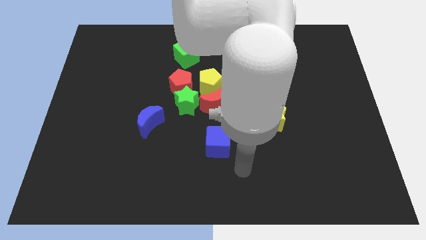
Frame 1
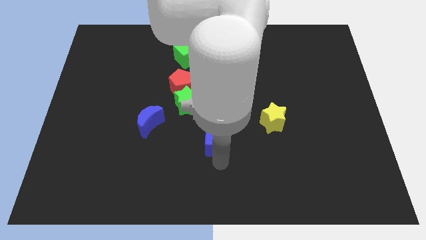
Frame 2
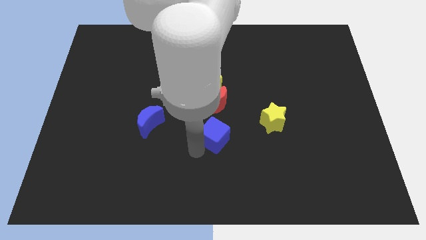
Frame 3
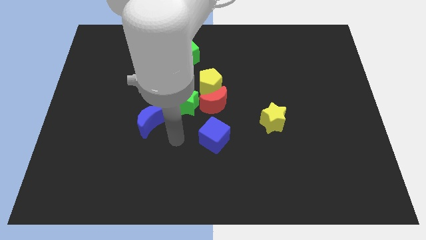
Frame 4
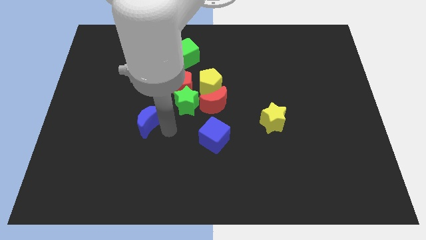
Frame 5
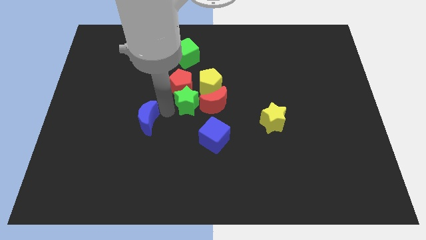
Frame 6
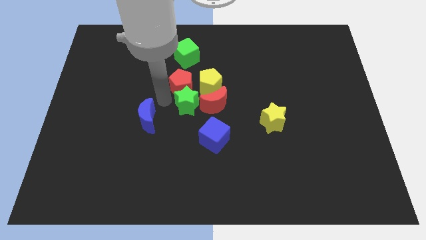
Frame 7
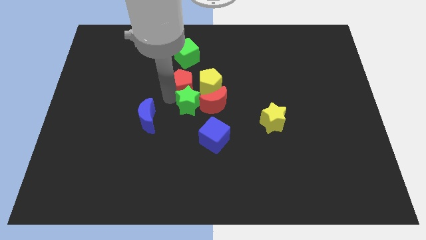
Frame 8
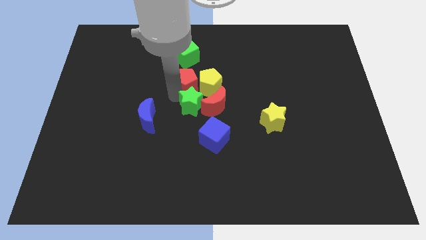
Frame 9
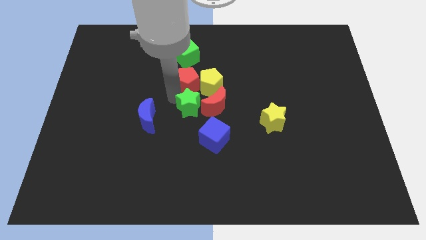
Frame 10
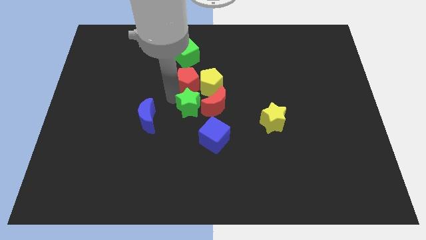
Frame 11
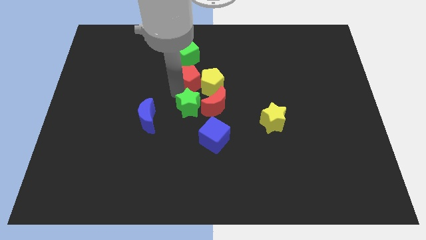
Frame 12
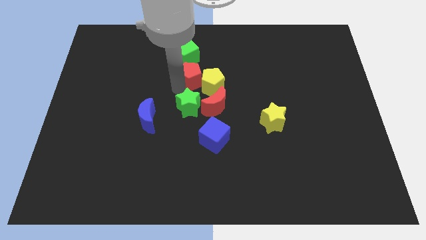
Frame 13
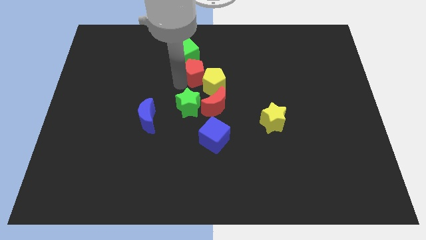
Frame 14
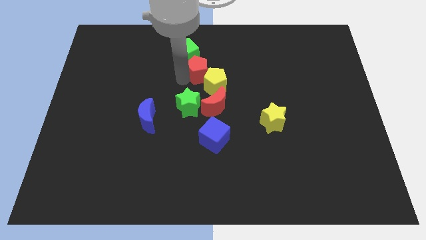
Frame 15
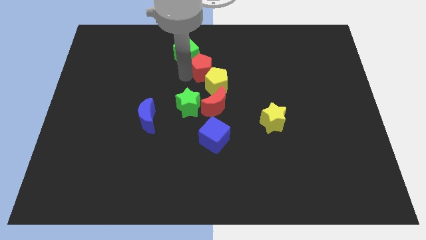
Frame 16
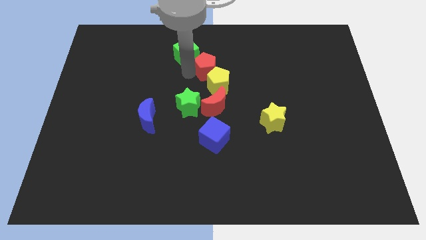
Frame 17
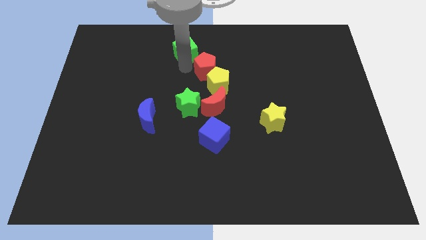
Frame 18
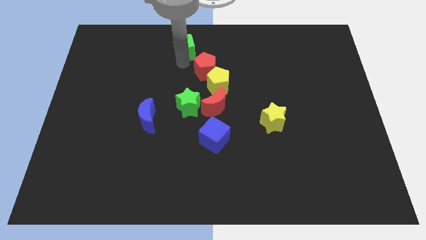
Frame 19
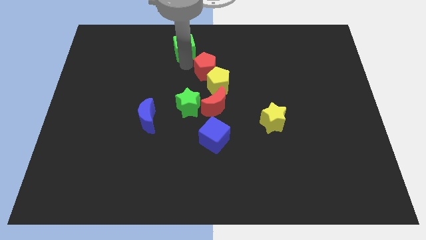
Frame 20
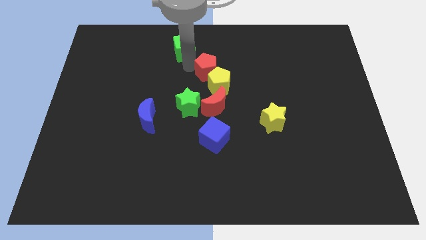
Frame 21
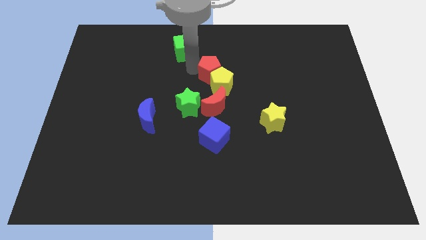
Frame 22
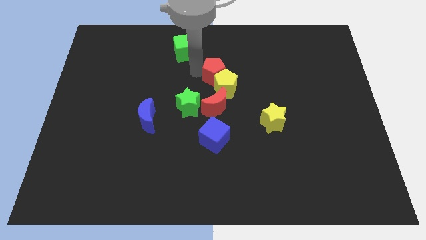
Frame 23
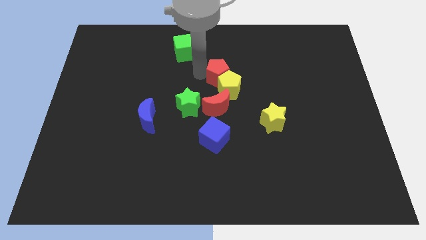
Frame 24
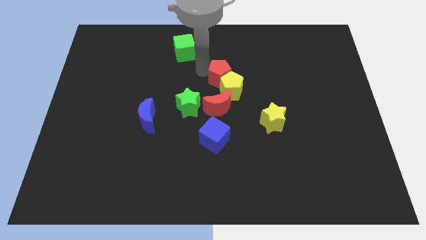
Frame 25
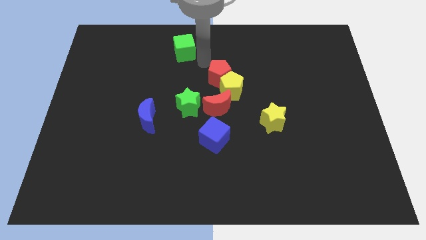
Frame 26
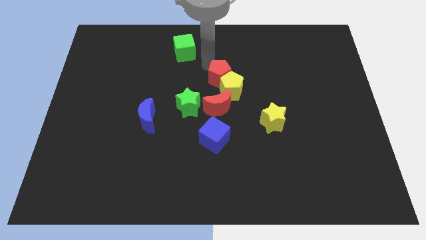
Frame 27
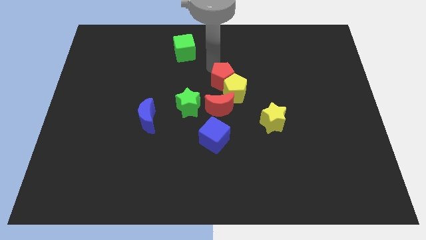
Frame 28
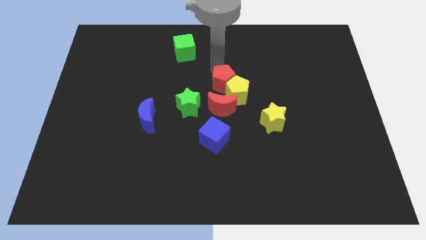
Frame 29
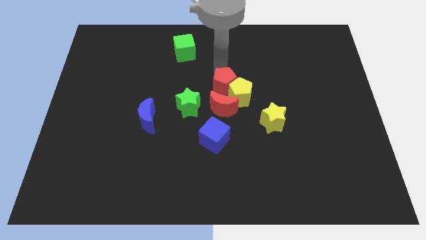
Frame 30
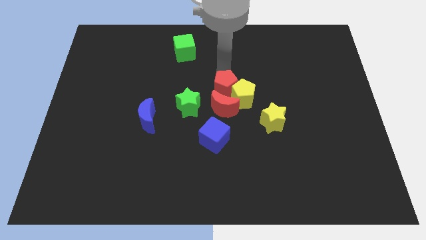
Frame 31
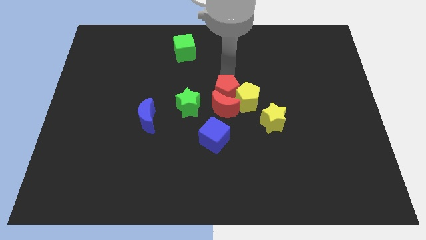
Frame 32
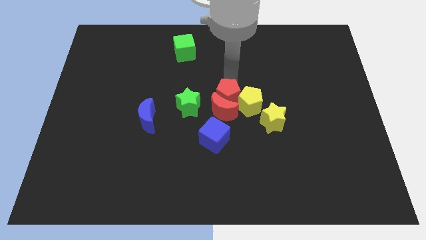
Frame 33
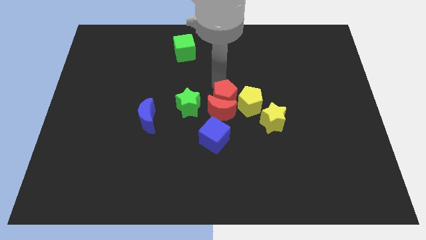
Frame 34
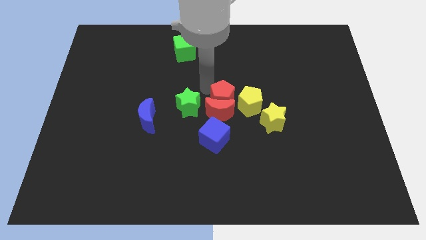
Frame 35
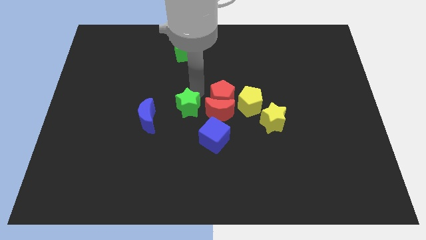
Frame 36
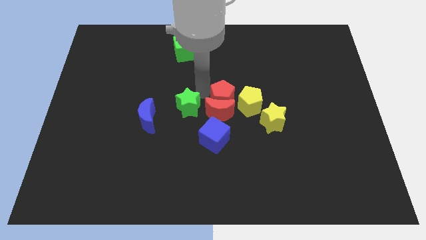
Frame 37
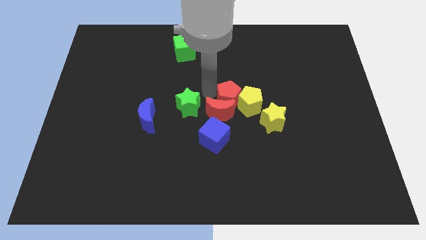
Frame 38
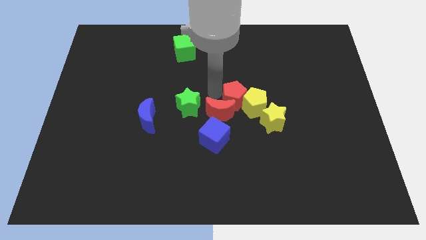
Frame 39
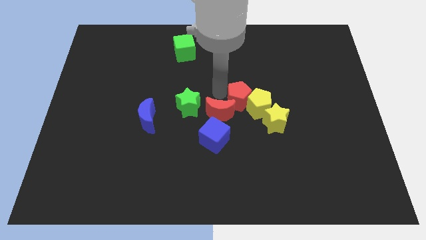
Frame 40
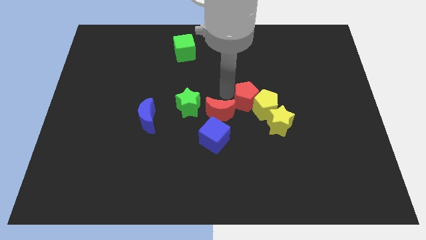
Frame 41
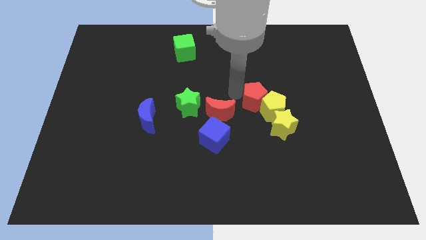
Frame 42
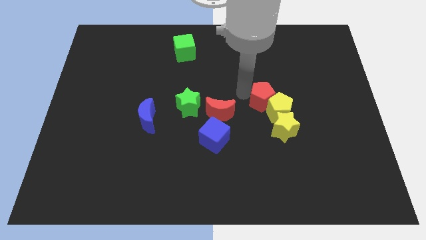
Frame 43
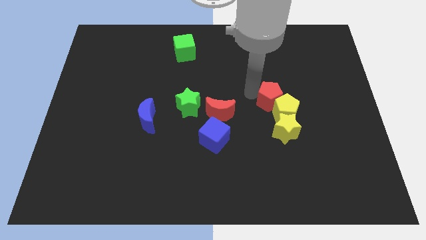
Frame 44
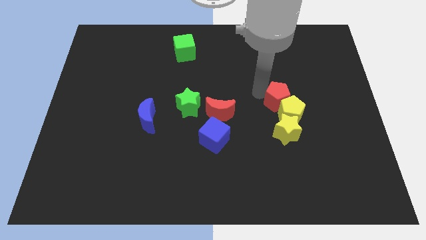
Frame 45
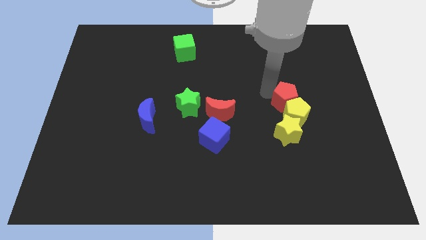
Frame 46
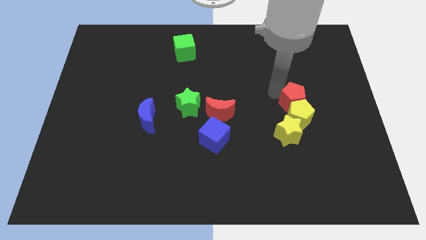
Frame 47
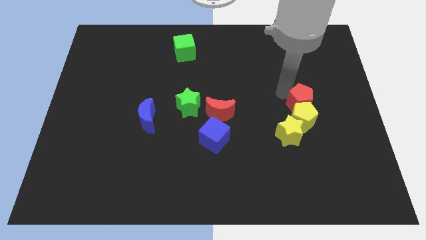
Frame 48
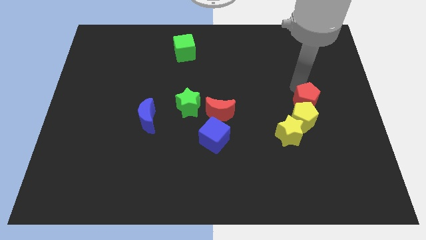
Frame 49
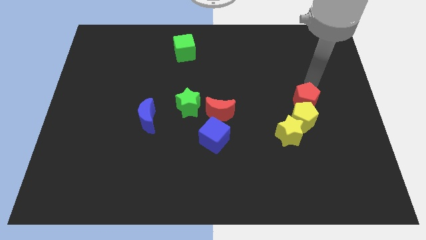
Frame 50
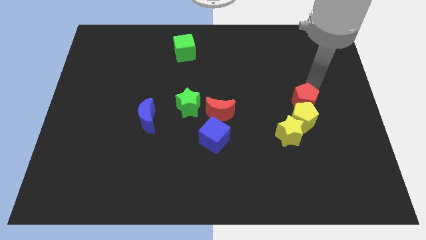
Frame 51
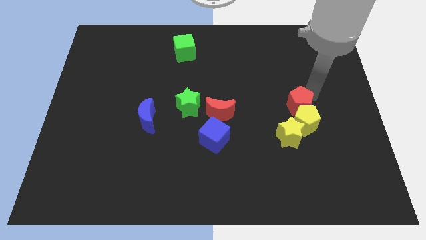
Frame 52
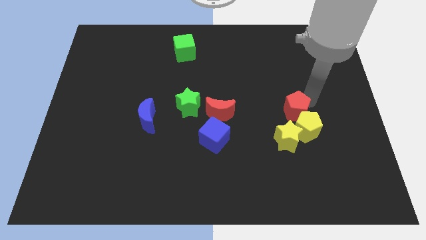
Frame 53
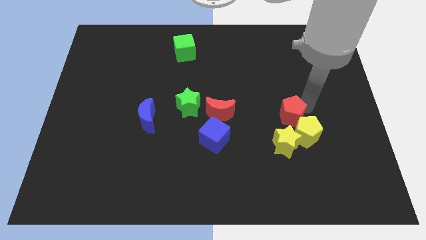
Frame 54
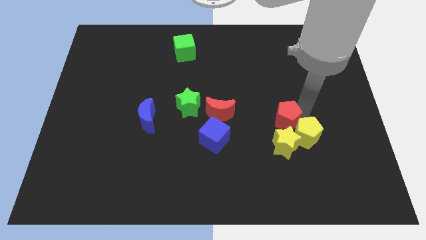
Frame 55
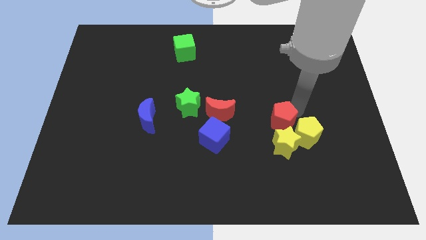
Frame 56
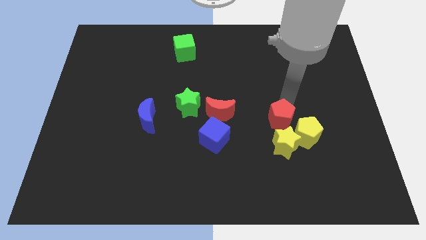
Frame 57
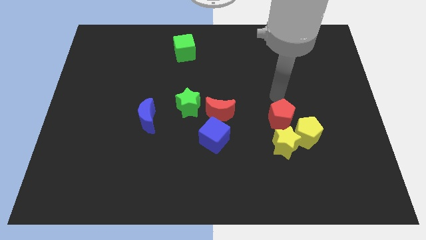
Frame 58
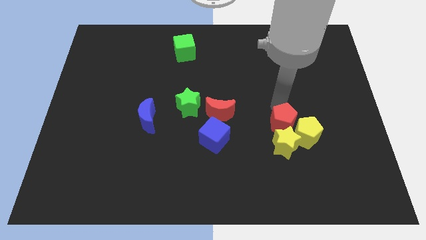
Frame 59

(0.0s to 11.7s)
move the red pentagon towards the yellow star

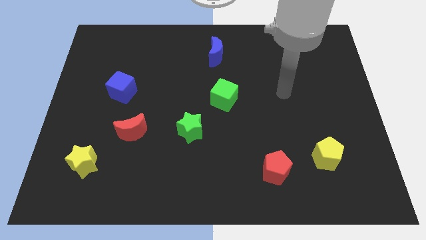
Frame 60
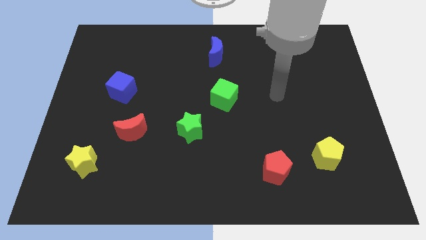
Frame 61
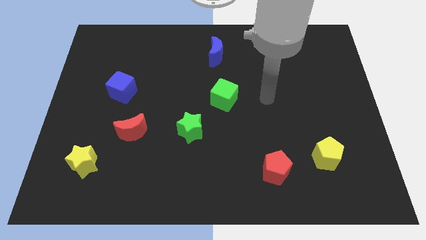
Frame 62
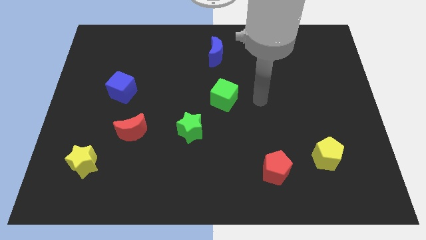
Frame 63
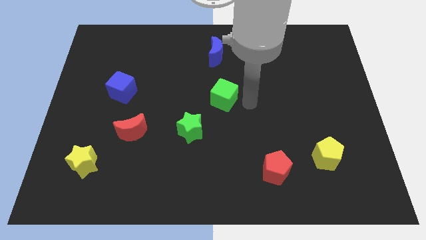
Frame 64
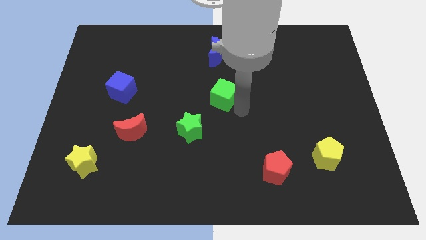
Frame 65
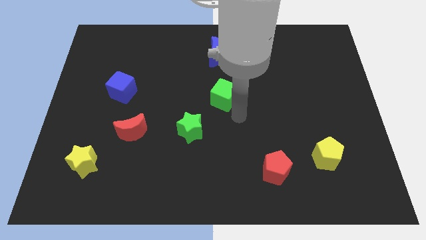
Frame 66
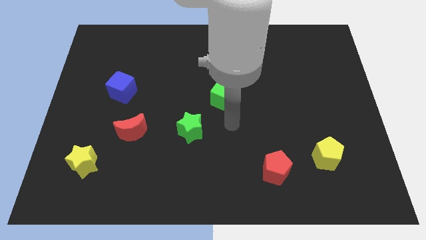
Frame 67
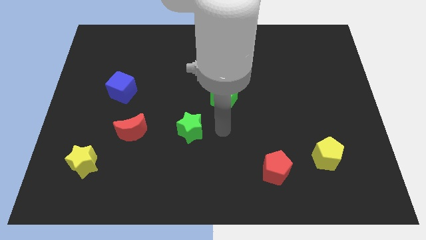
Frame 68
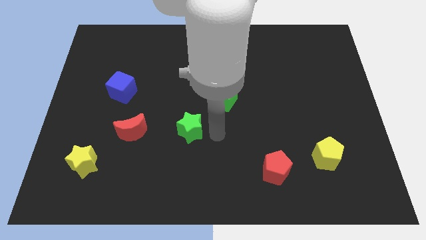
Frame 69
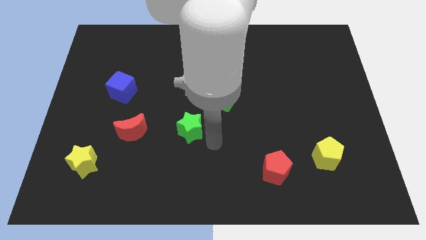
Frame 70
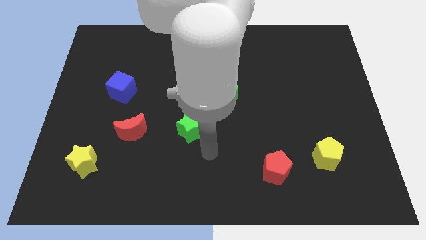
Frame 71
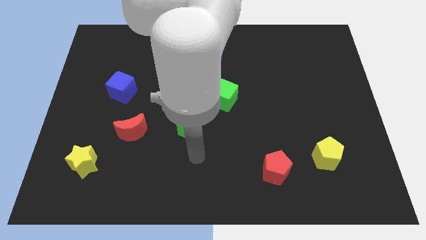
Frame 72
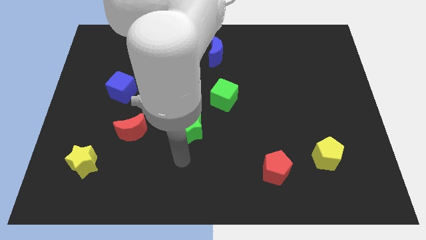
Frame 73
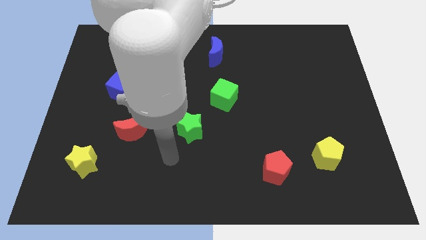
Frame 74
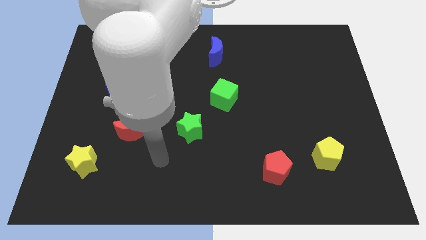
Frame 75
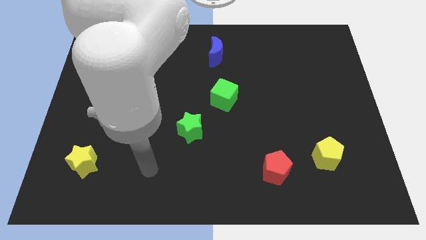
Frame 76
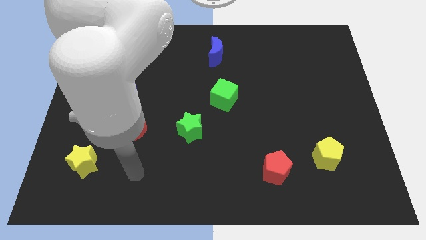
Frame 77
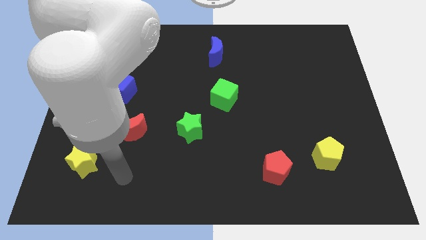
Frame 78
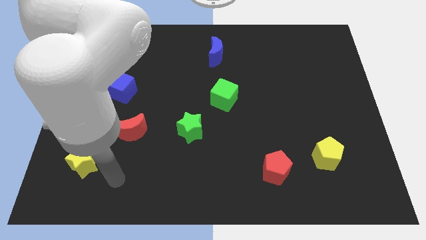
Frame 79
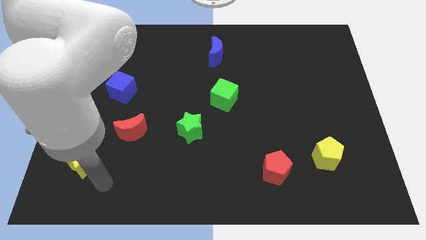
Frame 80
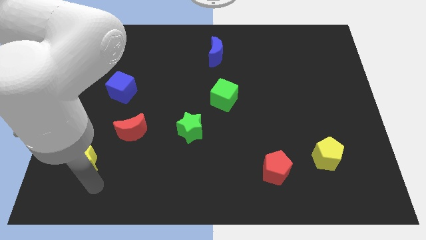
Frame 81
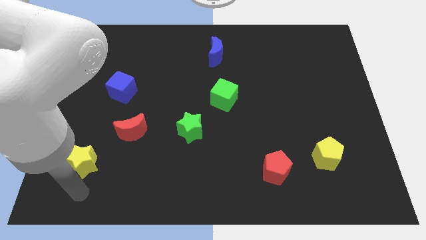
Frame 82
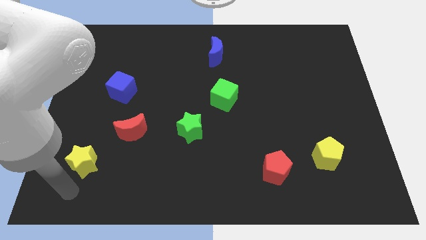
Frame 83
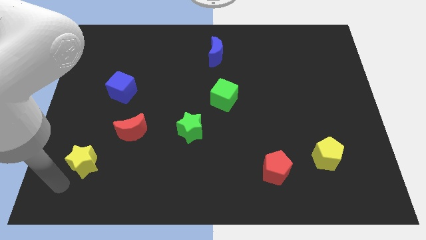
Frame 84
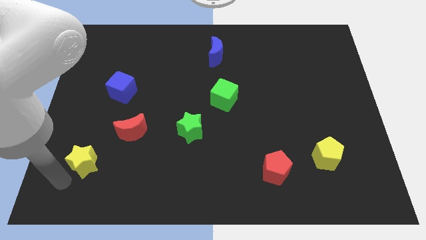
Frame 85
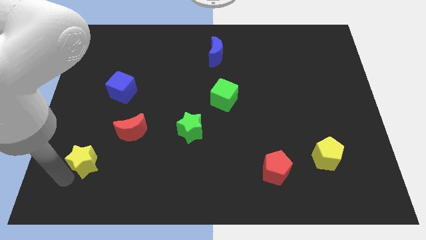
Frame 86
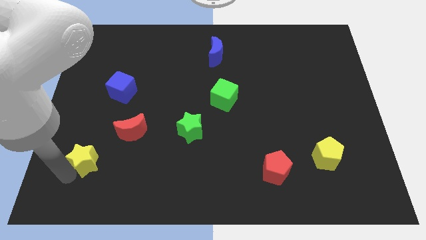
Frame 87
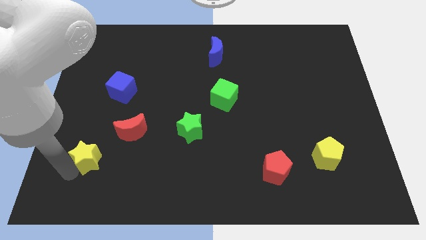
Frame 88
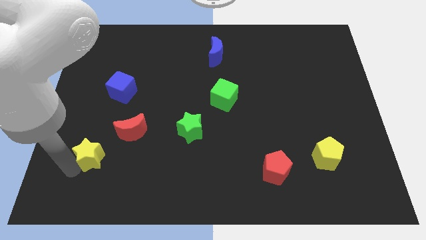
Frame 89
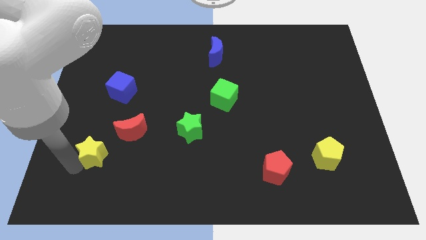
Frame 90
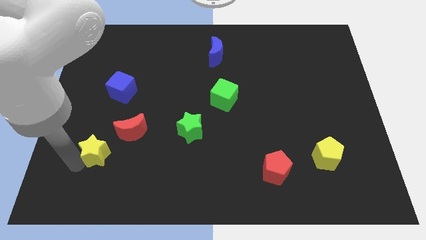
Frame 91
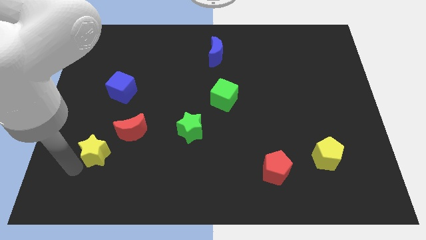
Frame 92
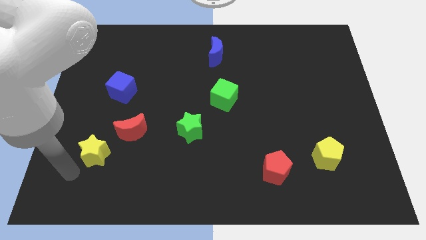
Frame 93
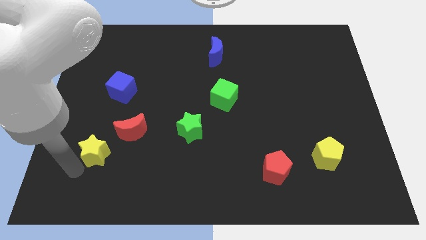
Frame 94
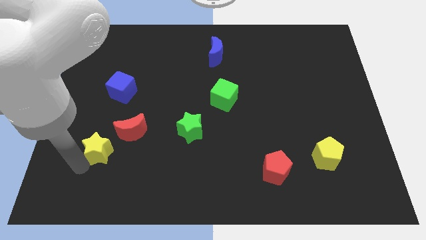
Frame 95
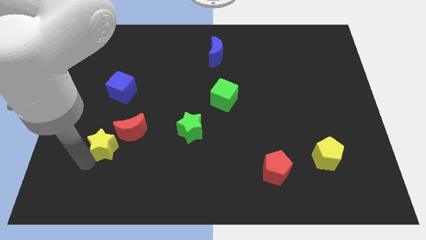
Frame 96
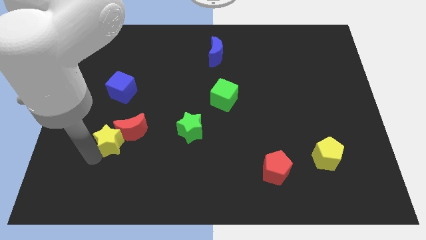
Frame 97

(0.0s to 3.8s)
push the yellow star next to the red moon
